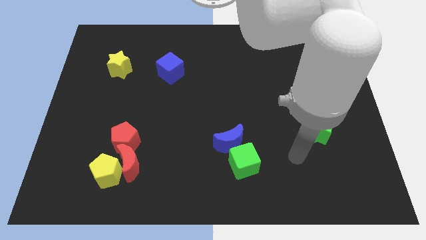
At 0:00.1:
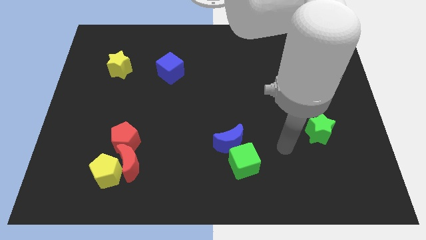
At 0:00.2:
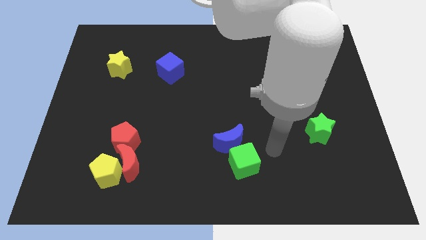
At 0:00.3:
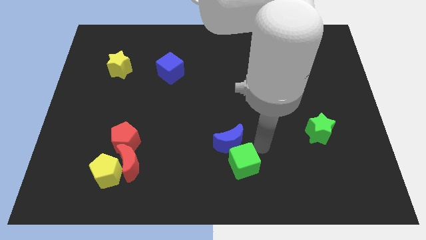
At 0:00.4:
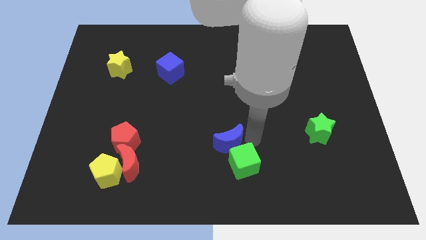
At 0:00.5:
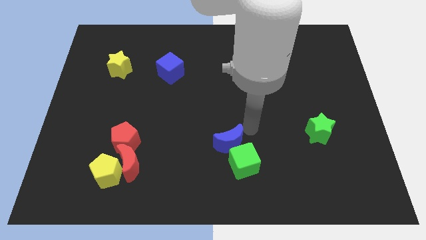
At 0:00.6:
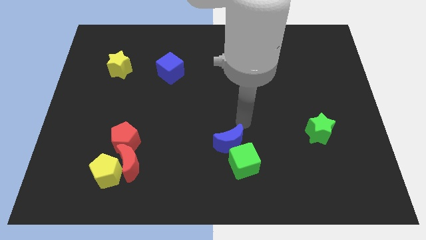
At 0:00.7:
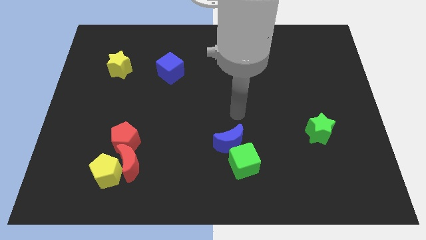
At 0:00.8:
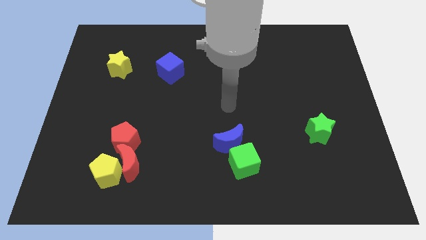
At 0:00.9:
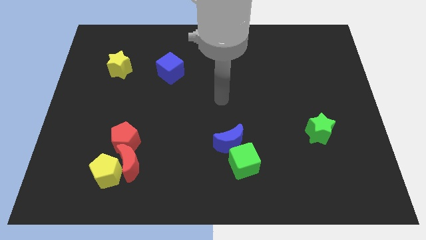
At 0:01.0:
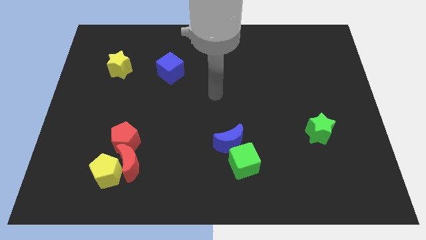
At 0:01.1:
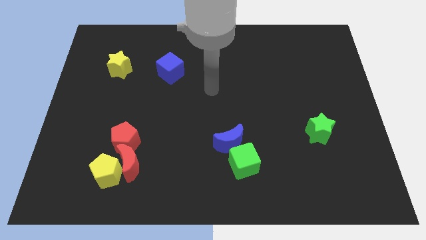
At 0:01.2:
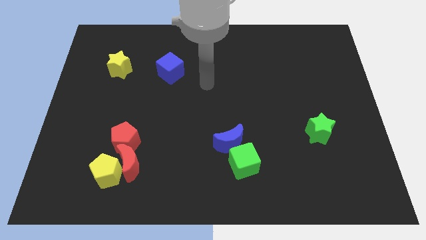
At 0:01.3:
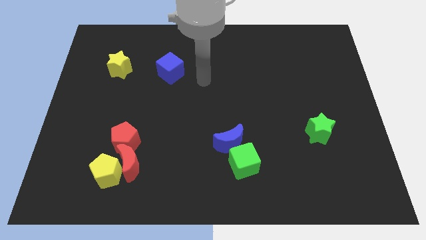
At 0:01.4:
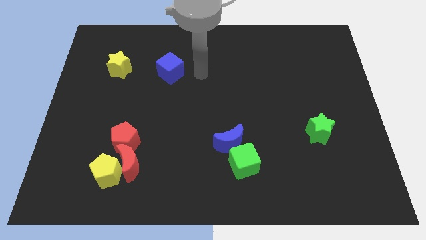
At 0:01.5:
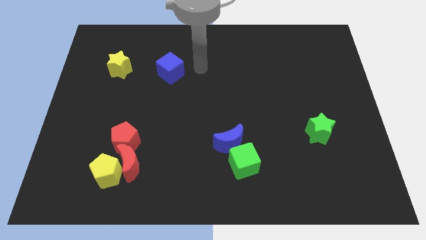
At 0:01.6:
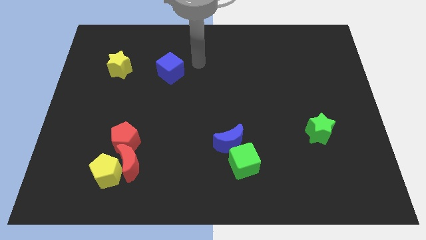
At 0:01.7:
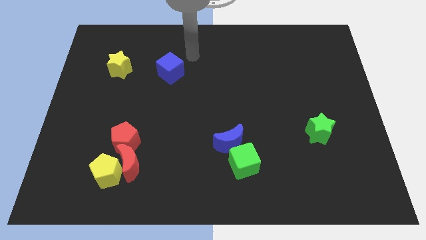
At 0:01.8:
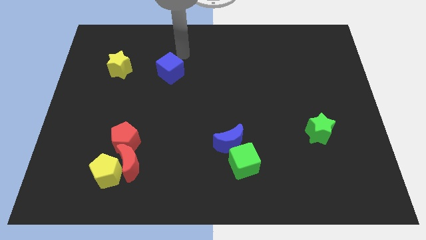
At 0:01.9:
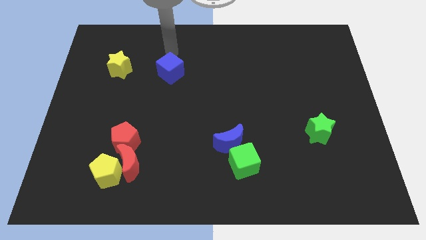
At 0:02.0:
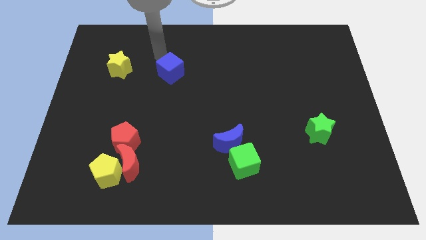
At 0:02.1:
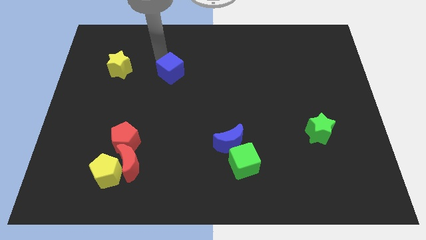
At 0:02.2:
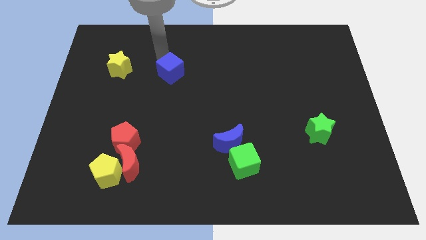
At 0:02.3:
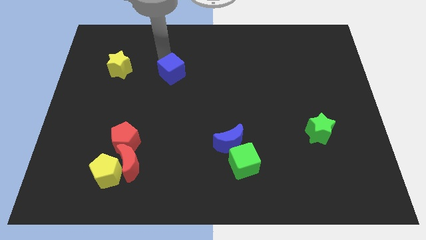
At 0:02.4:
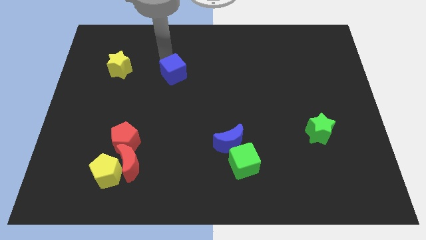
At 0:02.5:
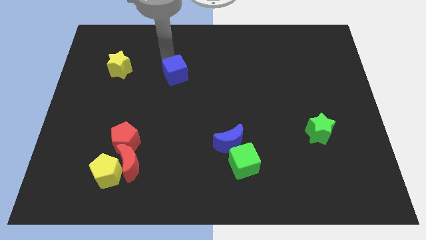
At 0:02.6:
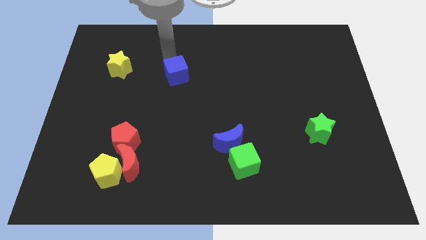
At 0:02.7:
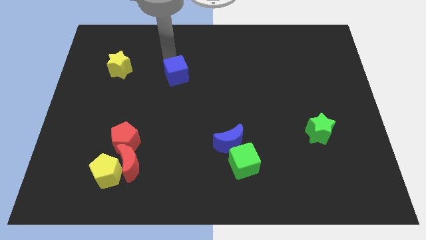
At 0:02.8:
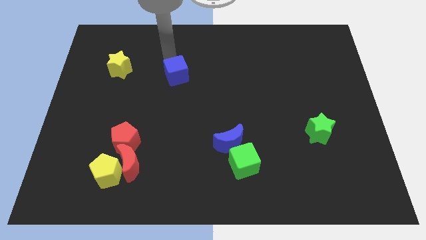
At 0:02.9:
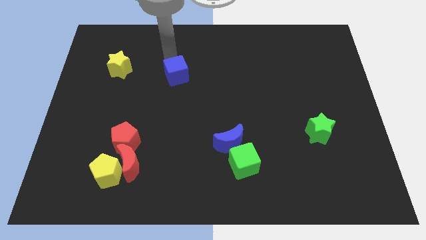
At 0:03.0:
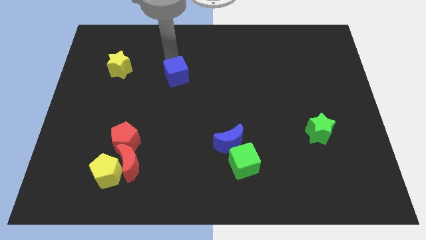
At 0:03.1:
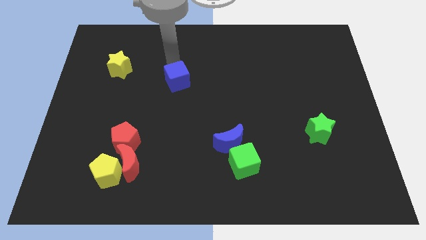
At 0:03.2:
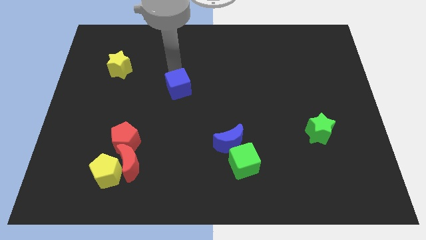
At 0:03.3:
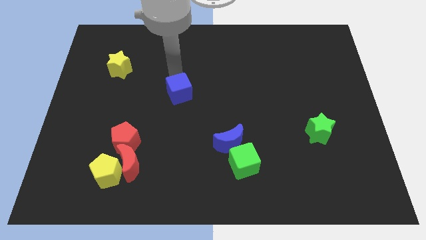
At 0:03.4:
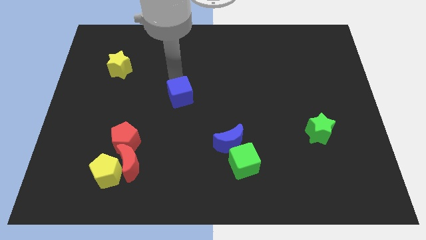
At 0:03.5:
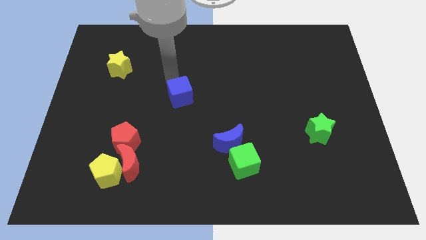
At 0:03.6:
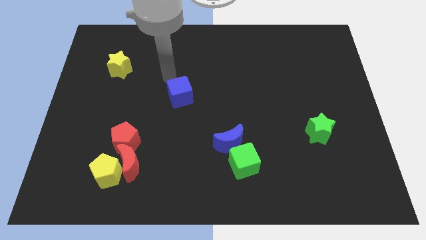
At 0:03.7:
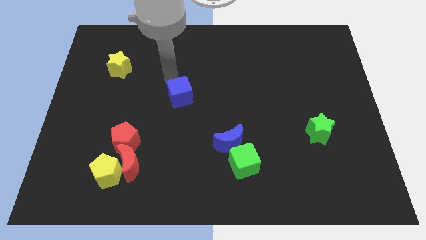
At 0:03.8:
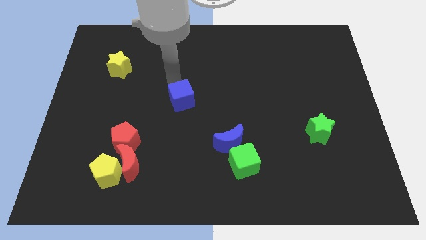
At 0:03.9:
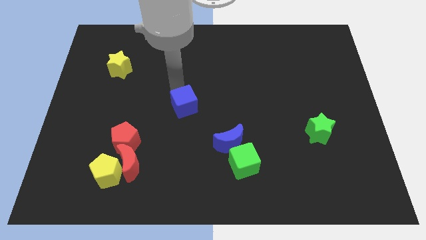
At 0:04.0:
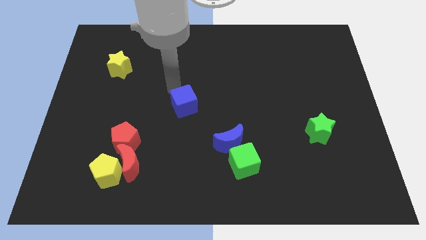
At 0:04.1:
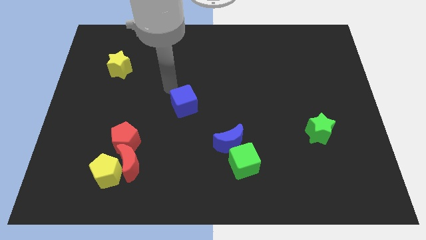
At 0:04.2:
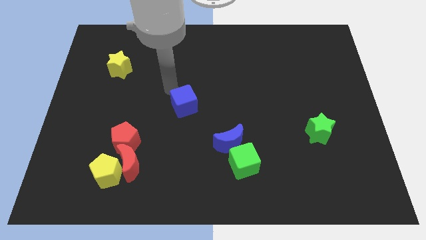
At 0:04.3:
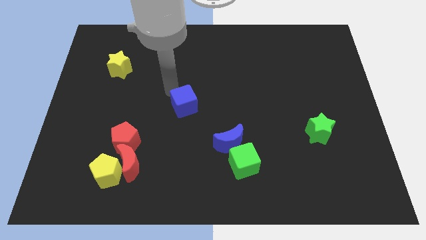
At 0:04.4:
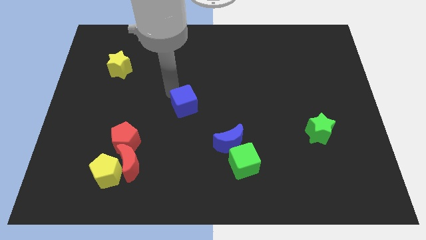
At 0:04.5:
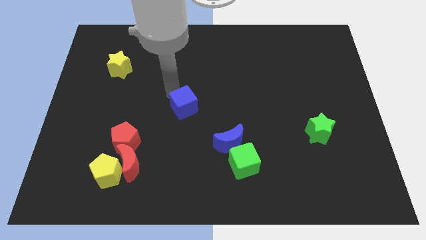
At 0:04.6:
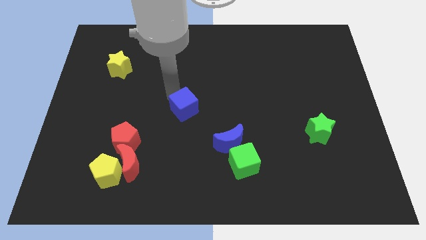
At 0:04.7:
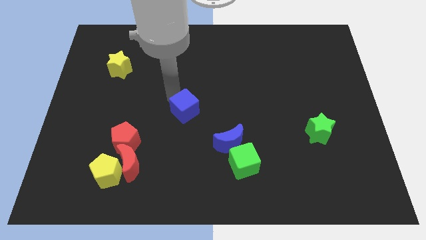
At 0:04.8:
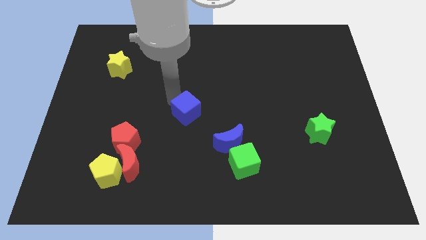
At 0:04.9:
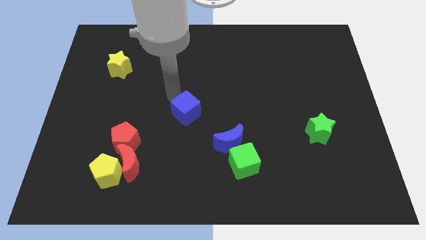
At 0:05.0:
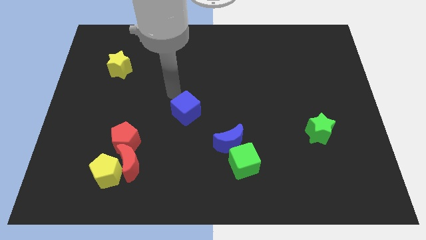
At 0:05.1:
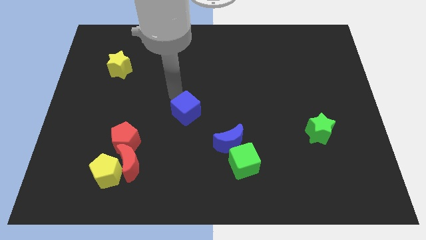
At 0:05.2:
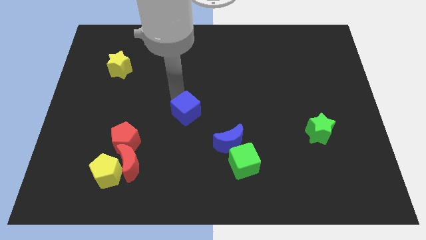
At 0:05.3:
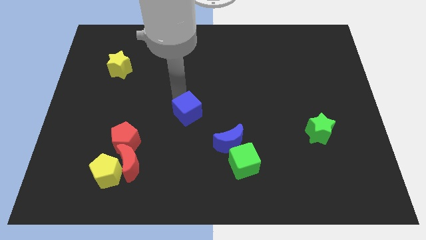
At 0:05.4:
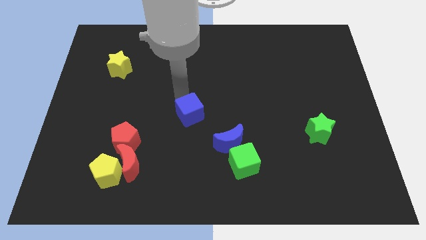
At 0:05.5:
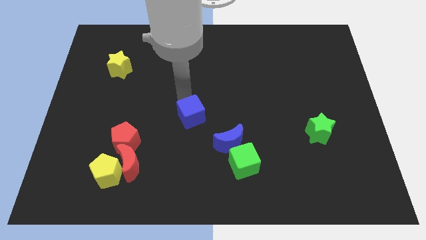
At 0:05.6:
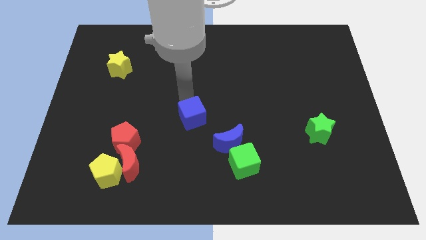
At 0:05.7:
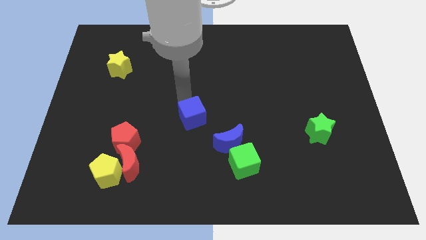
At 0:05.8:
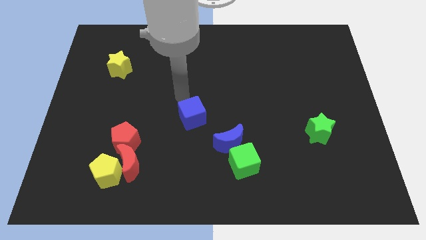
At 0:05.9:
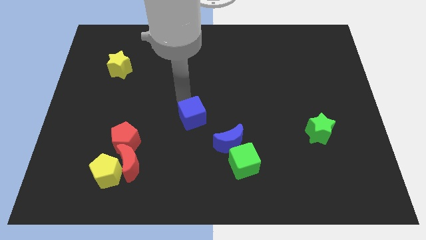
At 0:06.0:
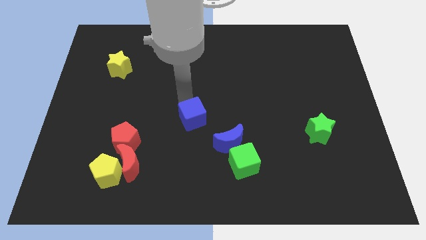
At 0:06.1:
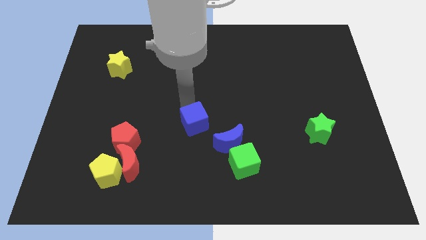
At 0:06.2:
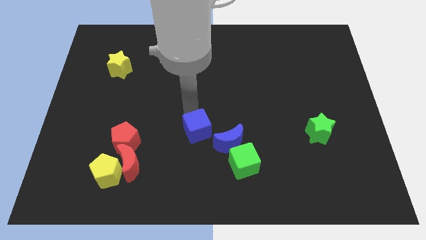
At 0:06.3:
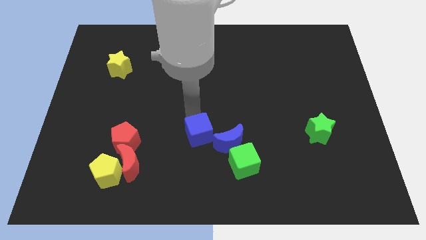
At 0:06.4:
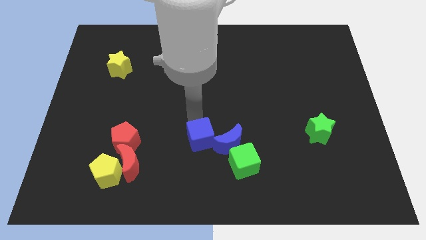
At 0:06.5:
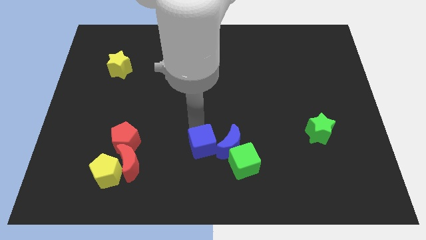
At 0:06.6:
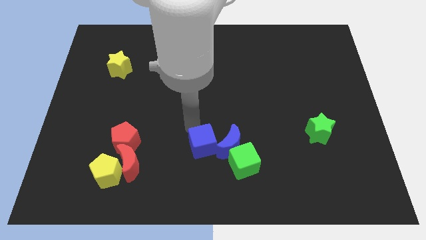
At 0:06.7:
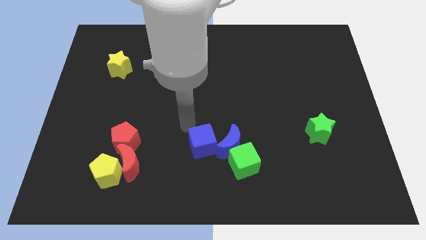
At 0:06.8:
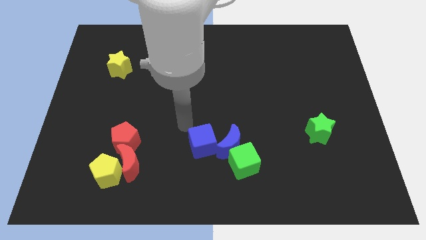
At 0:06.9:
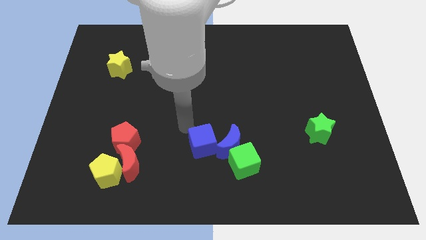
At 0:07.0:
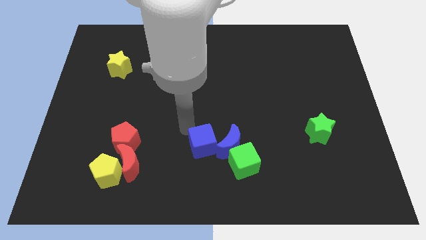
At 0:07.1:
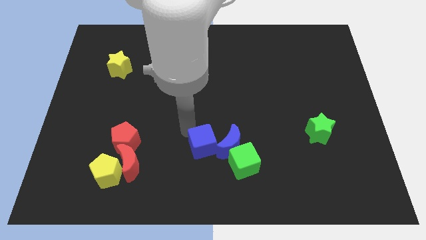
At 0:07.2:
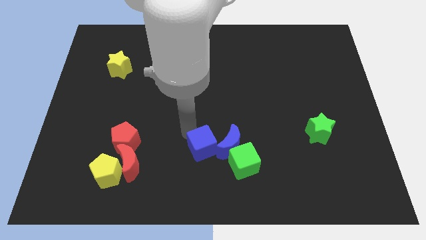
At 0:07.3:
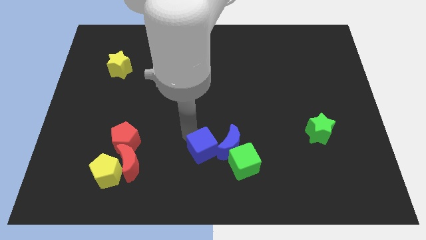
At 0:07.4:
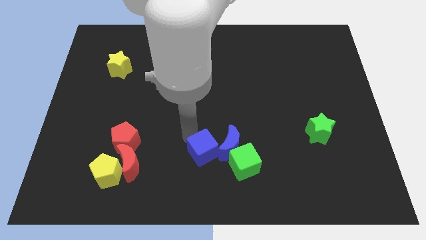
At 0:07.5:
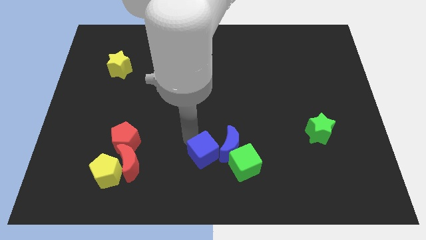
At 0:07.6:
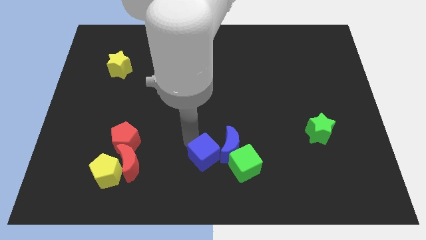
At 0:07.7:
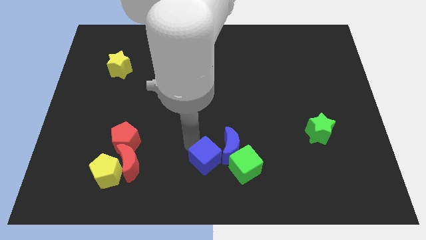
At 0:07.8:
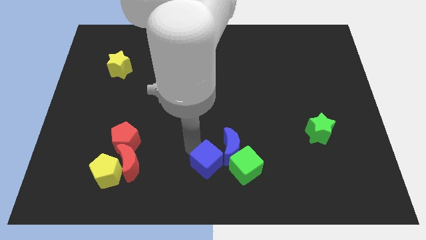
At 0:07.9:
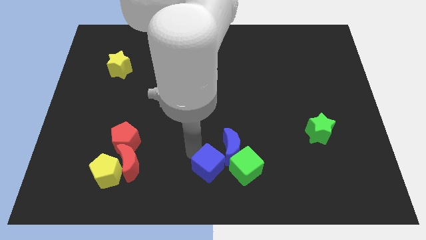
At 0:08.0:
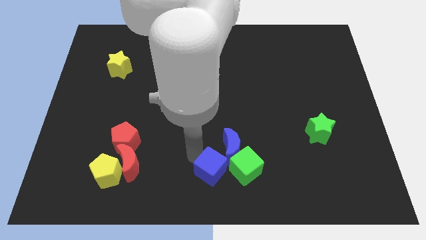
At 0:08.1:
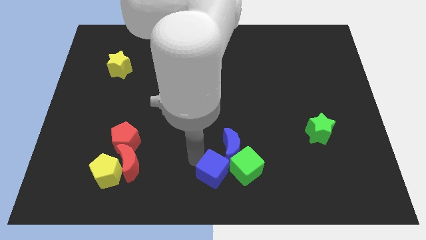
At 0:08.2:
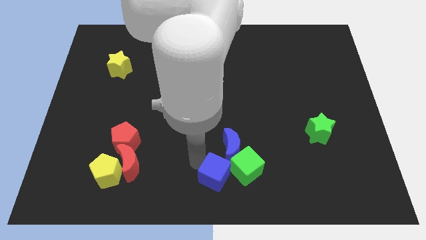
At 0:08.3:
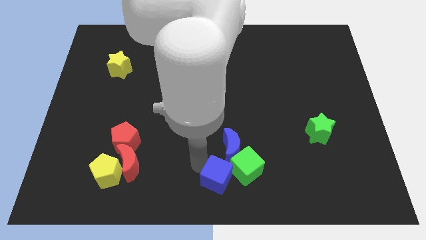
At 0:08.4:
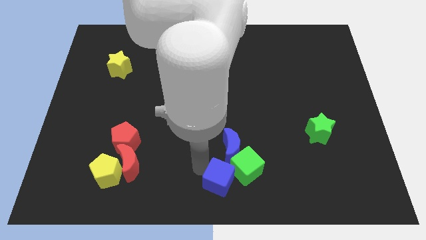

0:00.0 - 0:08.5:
push the blue cube towards the green cube
